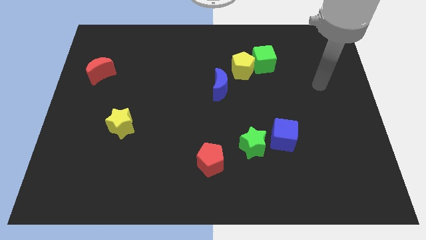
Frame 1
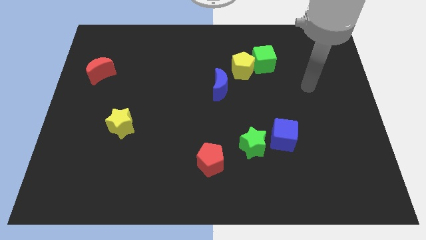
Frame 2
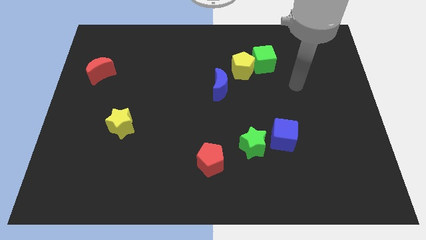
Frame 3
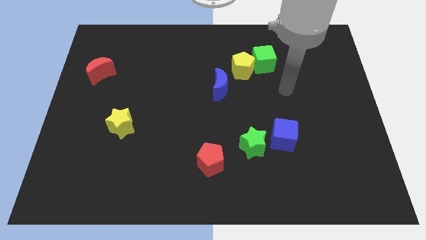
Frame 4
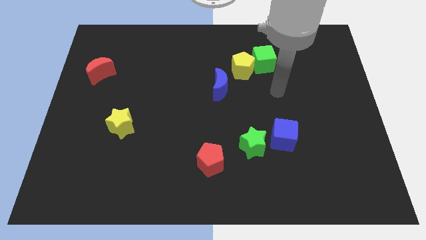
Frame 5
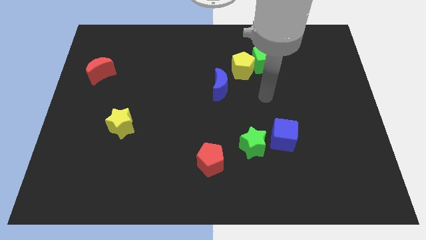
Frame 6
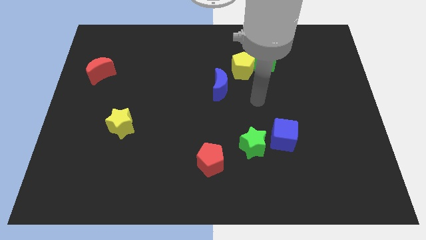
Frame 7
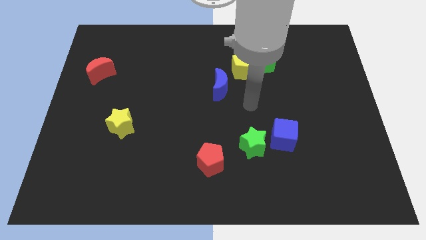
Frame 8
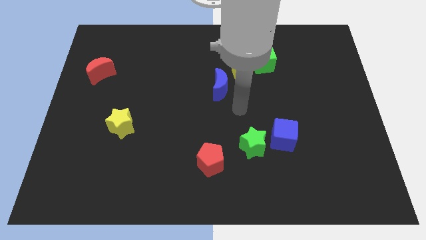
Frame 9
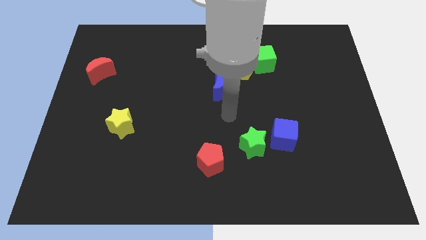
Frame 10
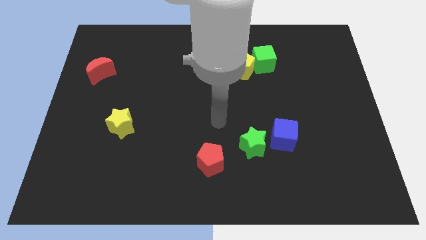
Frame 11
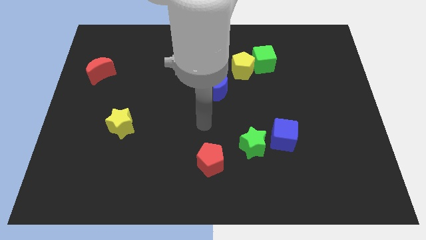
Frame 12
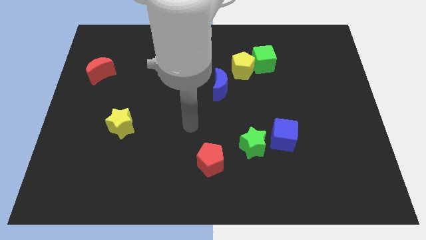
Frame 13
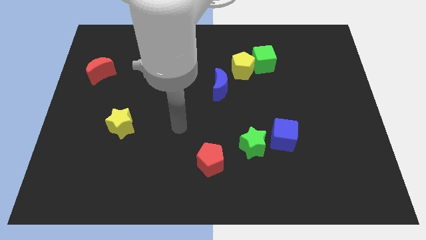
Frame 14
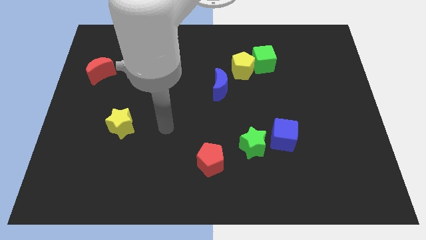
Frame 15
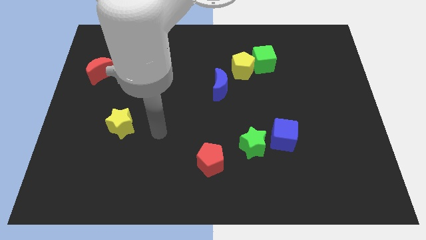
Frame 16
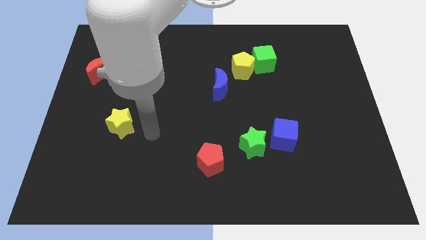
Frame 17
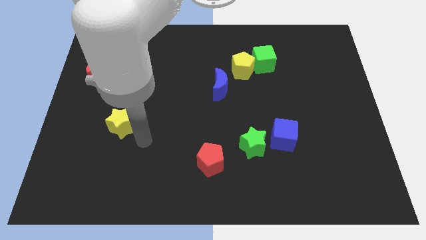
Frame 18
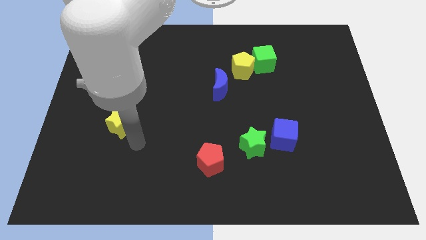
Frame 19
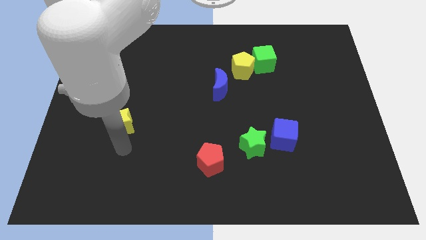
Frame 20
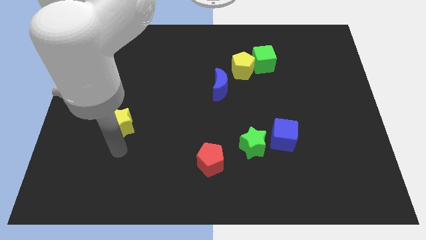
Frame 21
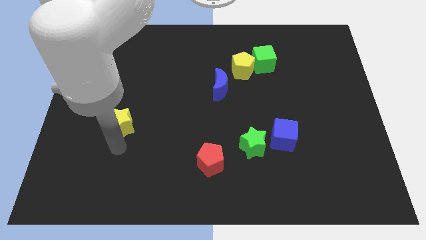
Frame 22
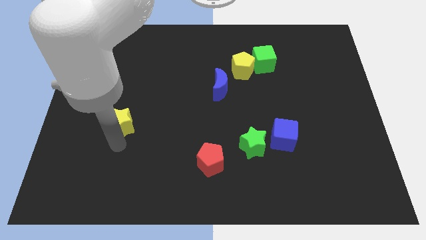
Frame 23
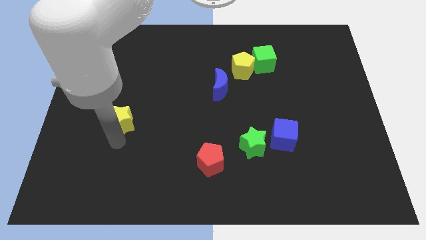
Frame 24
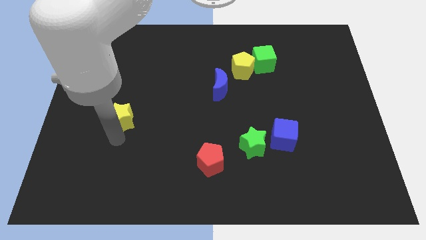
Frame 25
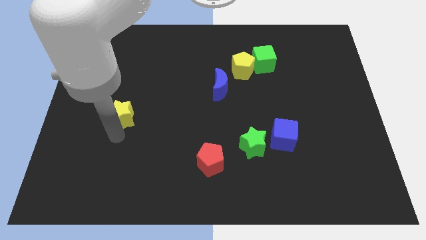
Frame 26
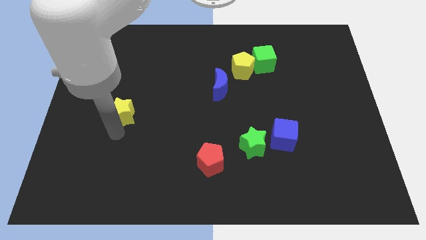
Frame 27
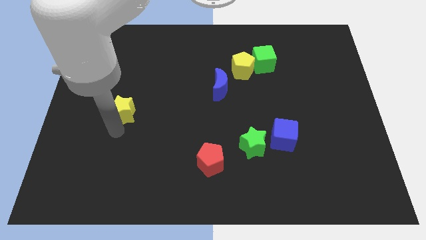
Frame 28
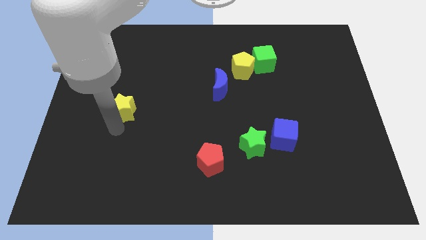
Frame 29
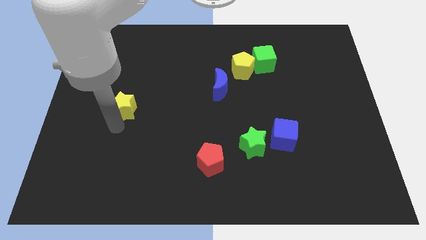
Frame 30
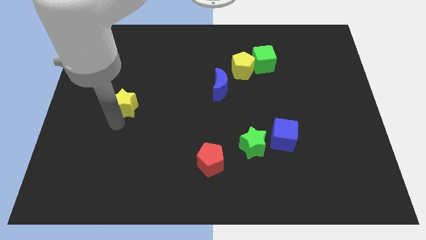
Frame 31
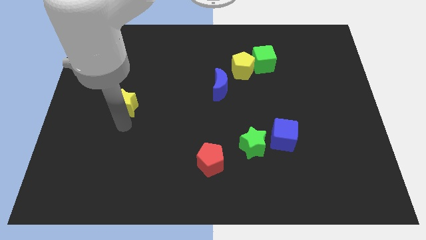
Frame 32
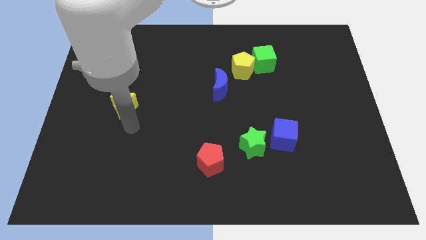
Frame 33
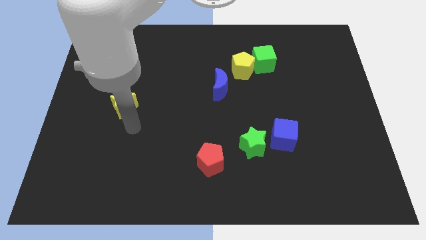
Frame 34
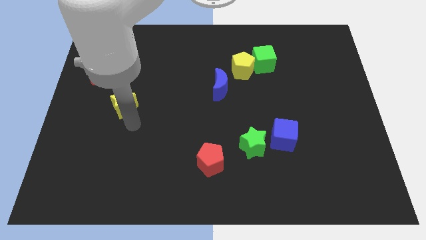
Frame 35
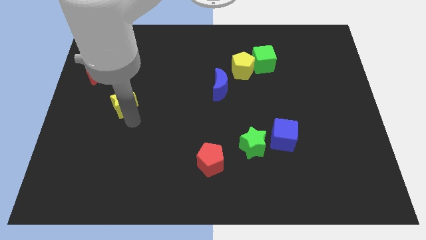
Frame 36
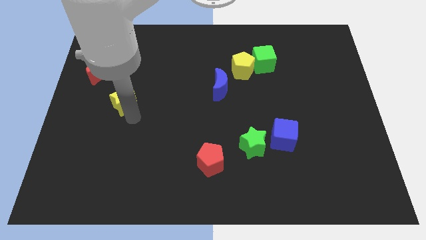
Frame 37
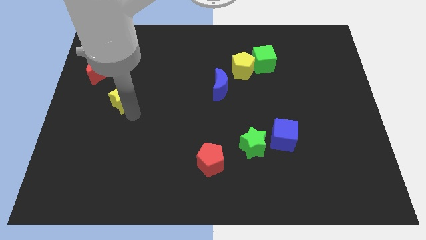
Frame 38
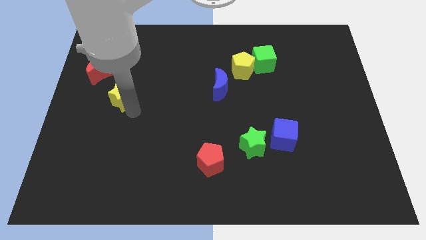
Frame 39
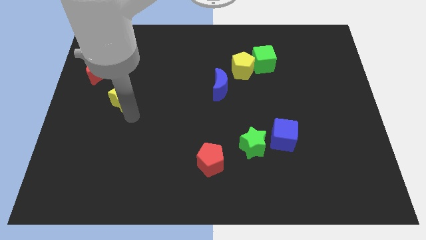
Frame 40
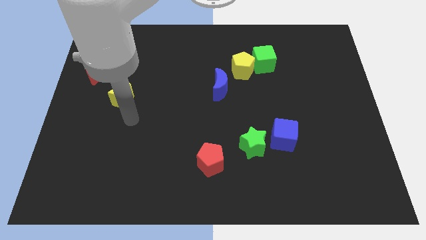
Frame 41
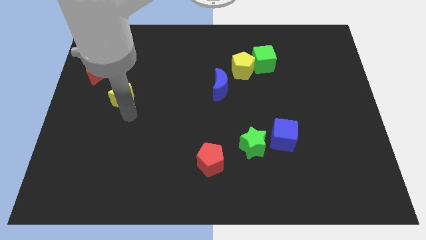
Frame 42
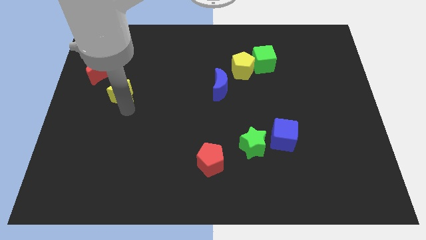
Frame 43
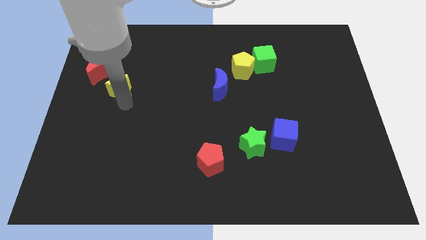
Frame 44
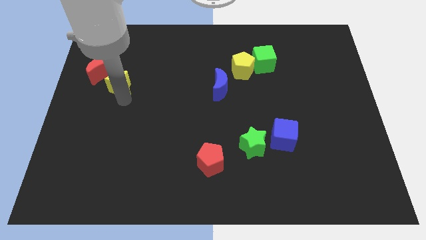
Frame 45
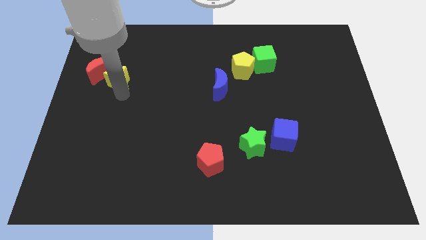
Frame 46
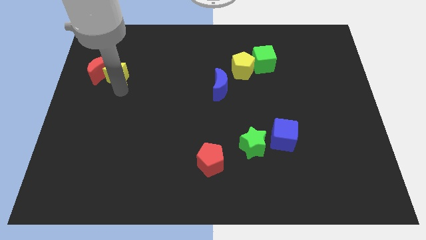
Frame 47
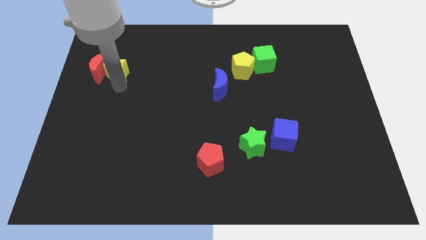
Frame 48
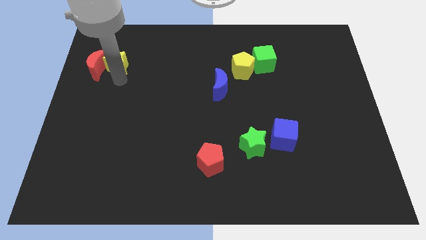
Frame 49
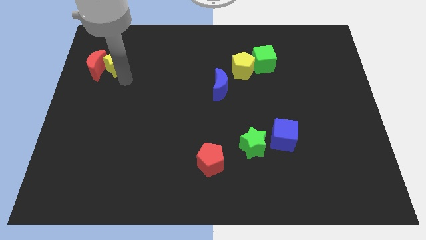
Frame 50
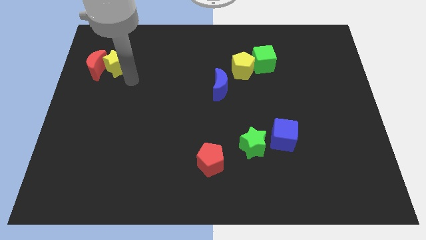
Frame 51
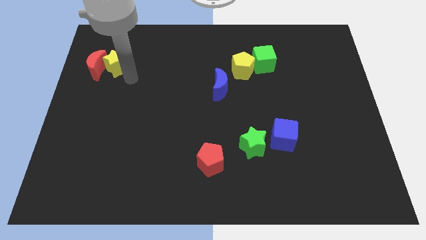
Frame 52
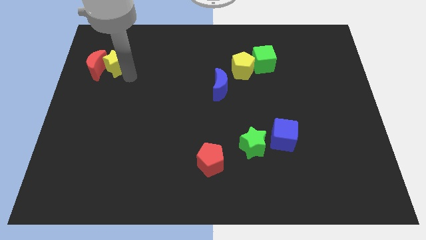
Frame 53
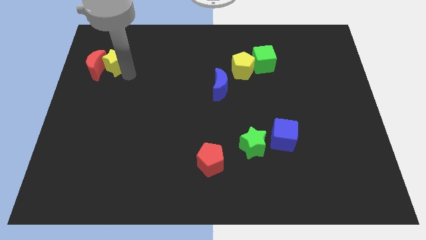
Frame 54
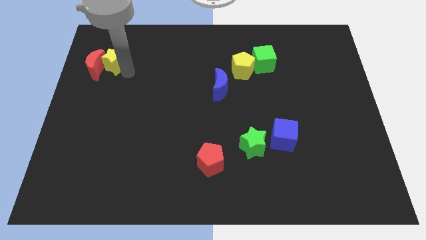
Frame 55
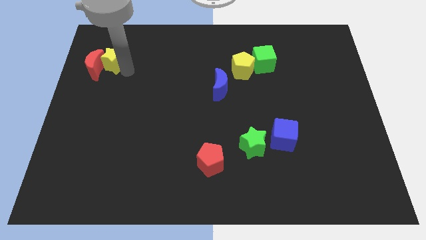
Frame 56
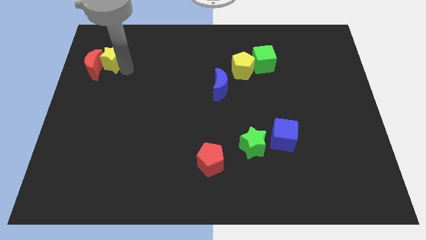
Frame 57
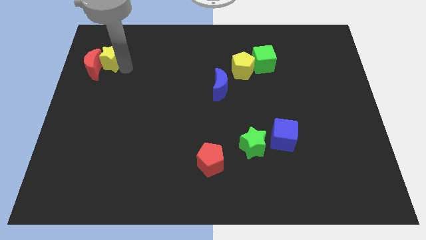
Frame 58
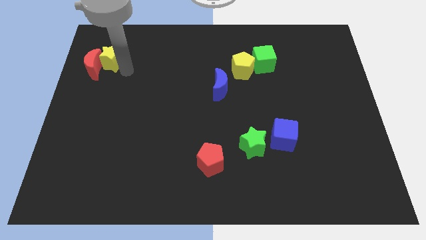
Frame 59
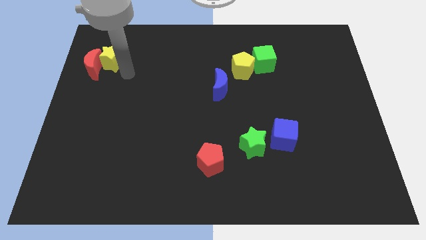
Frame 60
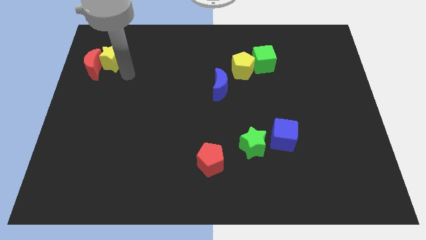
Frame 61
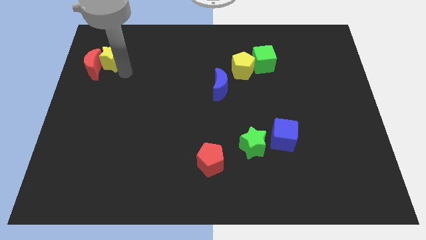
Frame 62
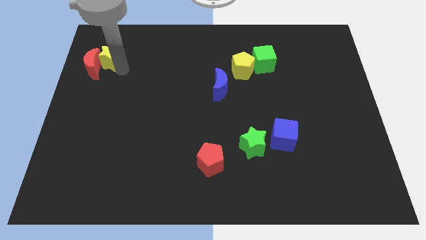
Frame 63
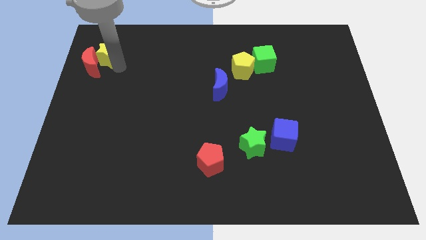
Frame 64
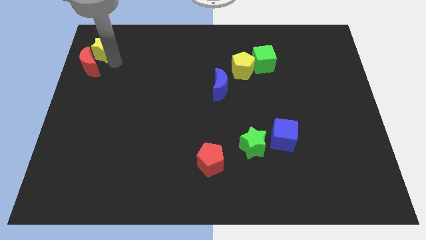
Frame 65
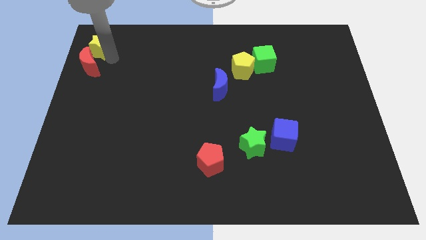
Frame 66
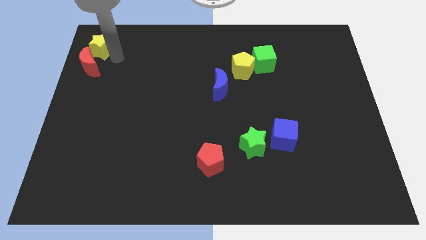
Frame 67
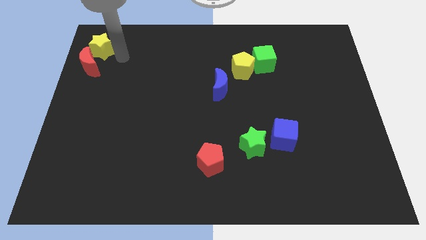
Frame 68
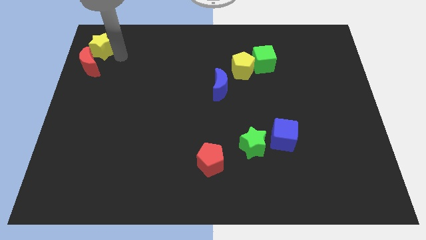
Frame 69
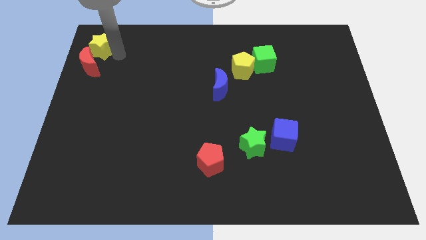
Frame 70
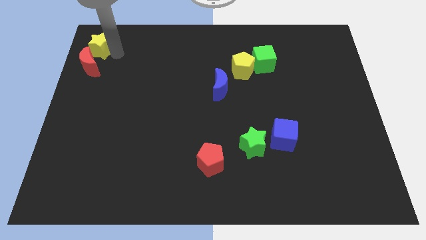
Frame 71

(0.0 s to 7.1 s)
push the yellow star to the top left corner
